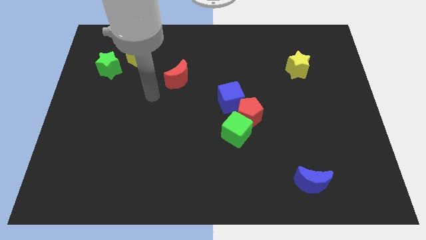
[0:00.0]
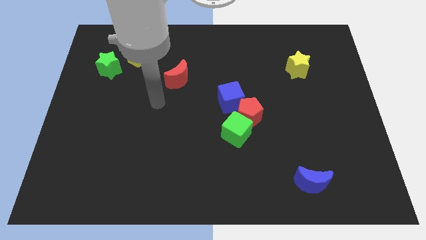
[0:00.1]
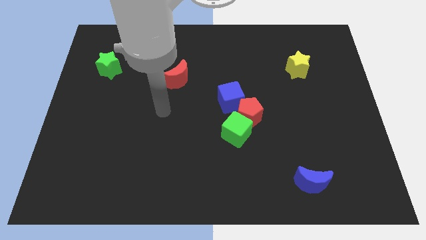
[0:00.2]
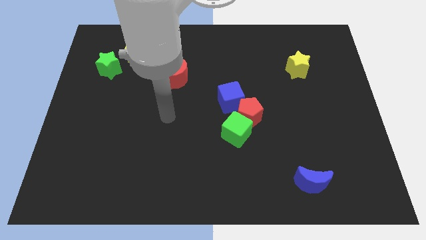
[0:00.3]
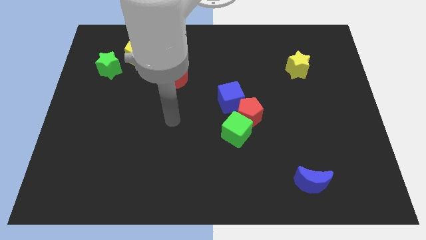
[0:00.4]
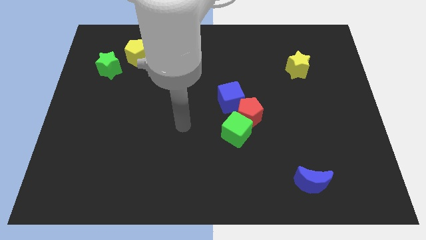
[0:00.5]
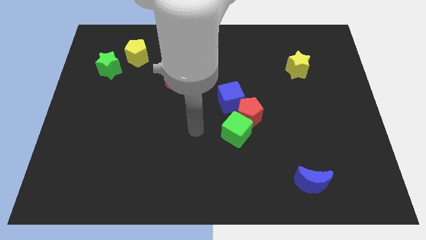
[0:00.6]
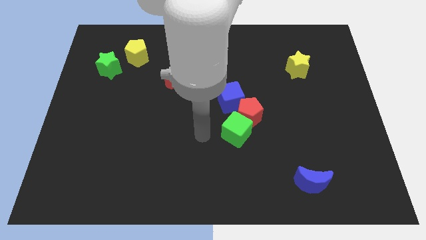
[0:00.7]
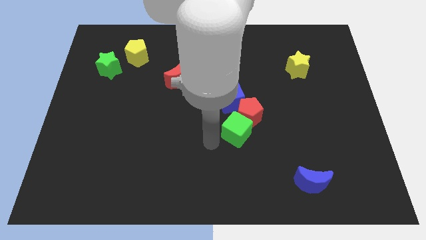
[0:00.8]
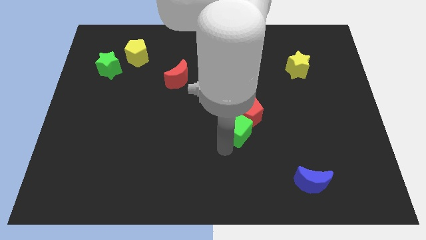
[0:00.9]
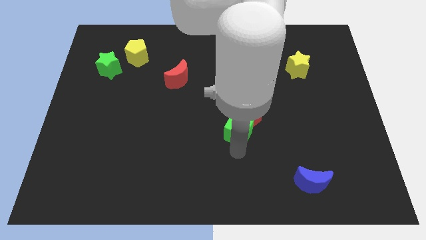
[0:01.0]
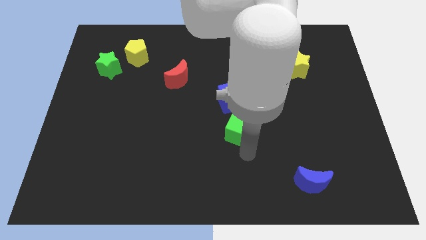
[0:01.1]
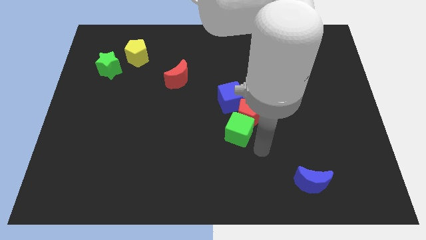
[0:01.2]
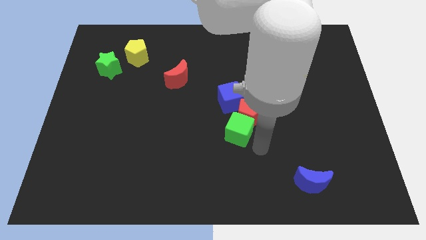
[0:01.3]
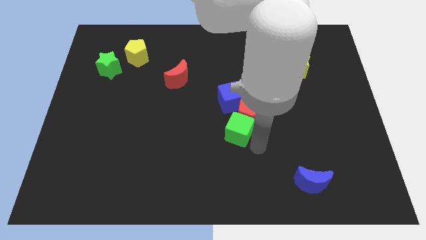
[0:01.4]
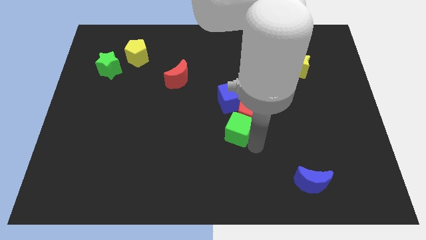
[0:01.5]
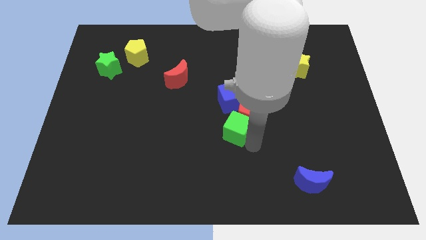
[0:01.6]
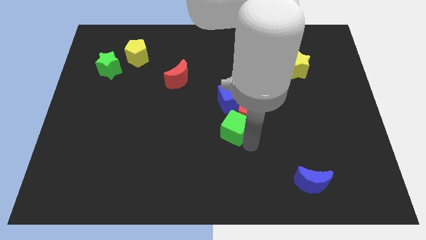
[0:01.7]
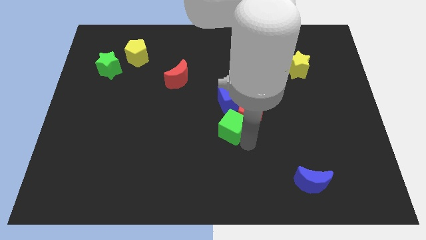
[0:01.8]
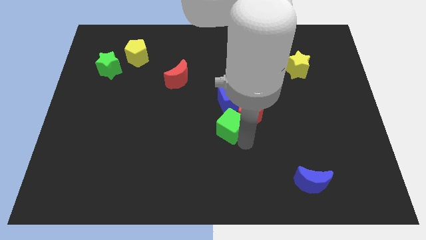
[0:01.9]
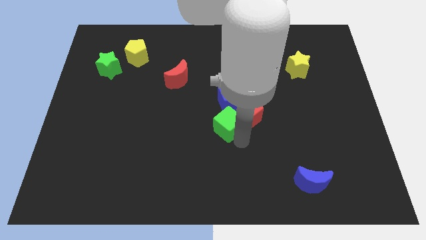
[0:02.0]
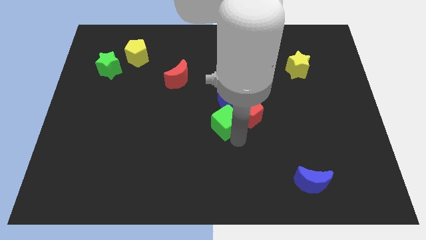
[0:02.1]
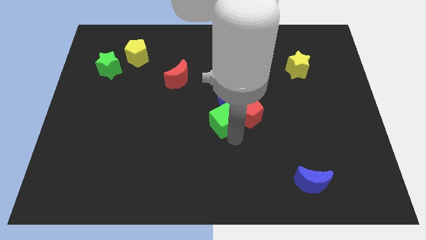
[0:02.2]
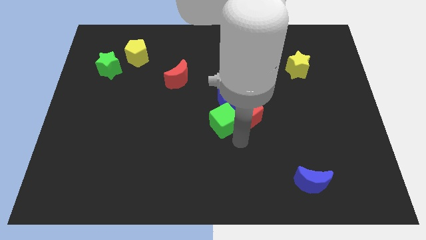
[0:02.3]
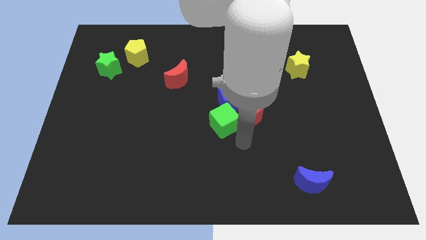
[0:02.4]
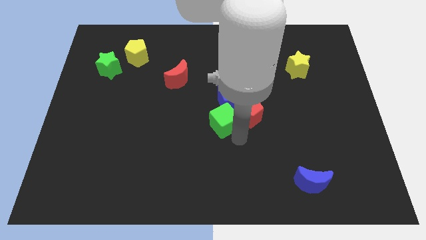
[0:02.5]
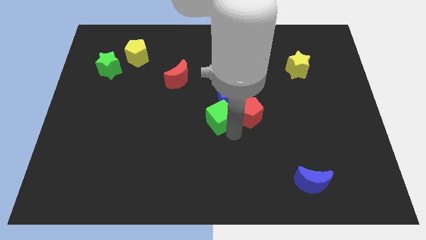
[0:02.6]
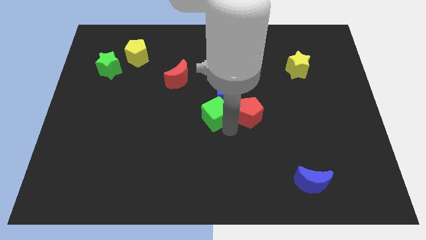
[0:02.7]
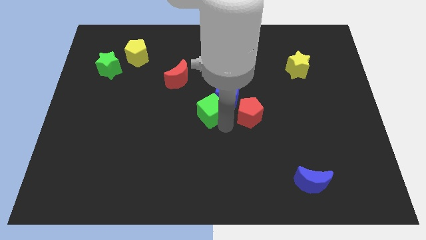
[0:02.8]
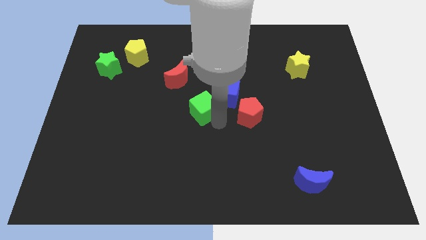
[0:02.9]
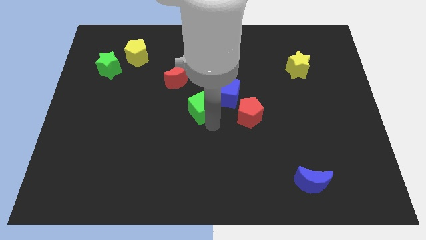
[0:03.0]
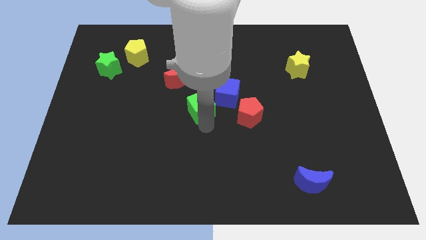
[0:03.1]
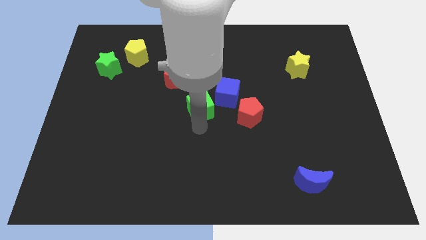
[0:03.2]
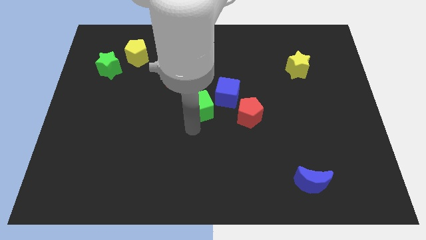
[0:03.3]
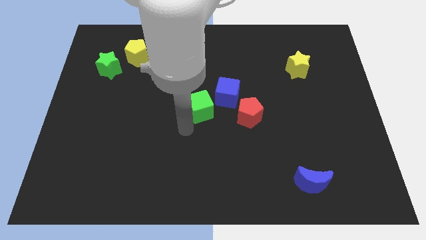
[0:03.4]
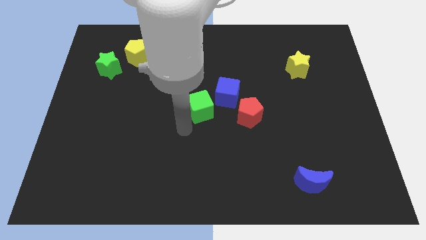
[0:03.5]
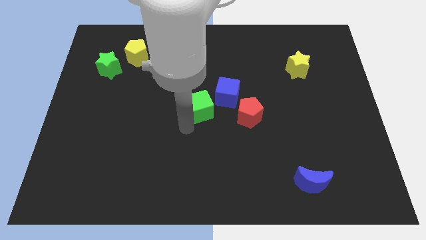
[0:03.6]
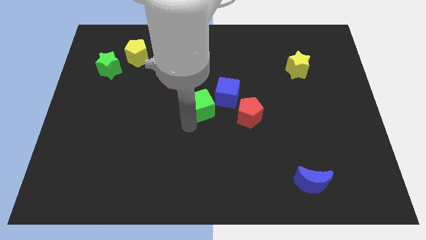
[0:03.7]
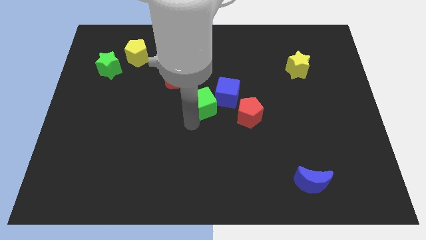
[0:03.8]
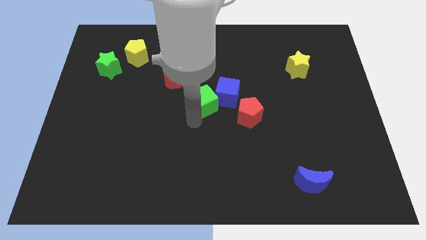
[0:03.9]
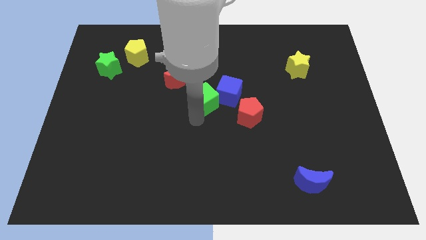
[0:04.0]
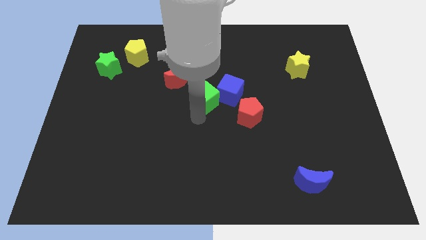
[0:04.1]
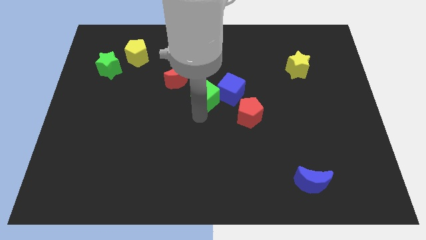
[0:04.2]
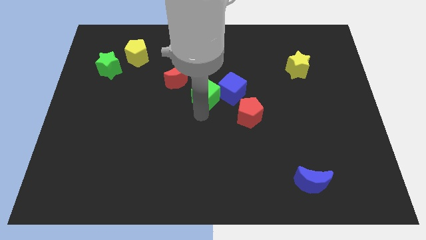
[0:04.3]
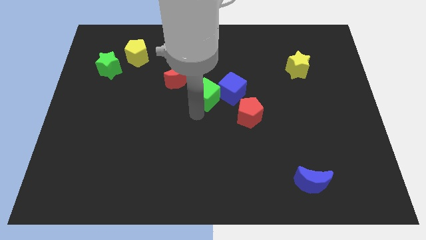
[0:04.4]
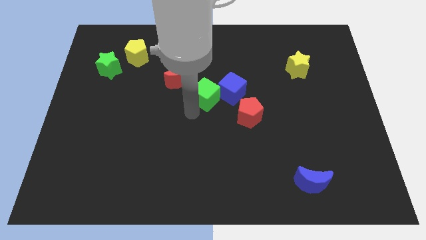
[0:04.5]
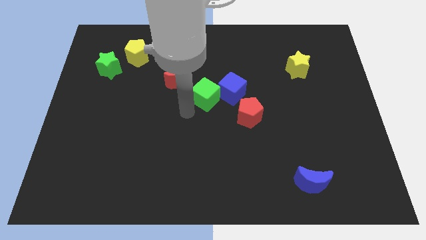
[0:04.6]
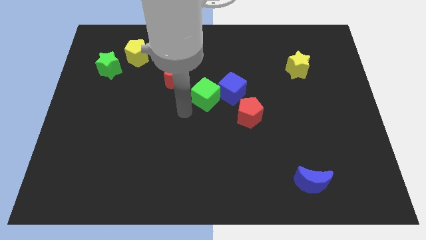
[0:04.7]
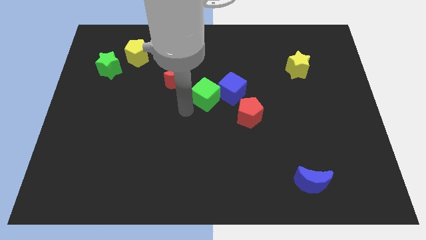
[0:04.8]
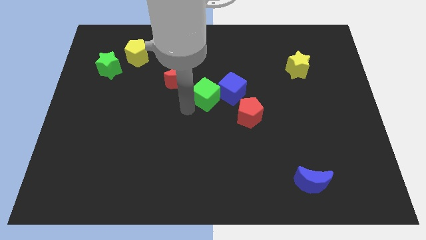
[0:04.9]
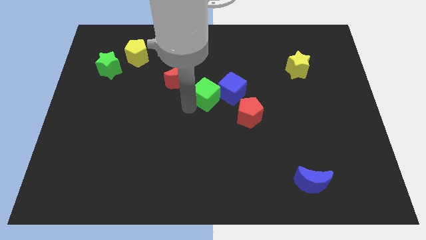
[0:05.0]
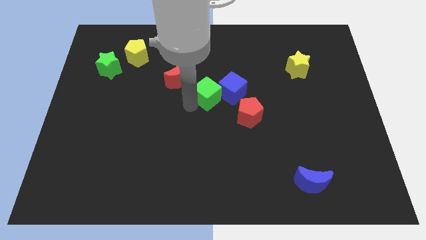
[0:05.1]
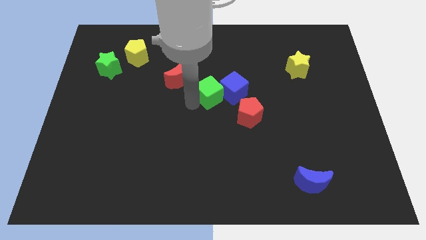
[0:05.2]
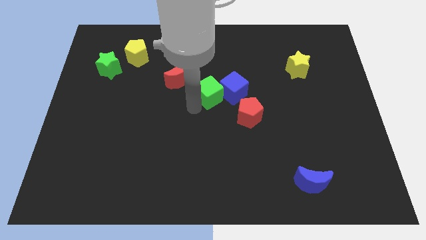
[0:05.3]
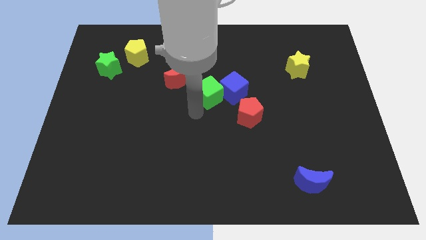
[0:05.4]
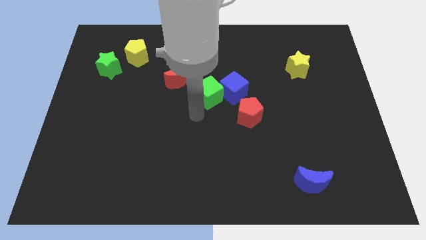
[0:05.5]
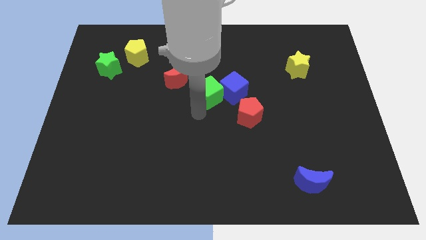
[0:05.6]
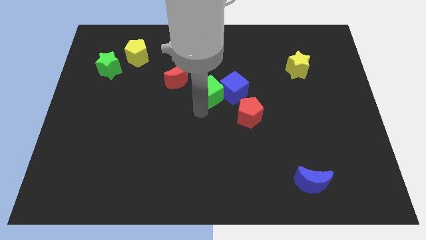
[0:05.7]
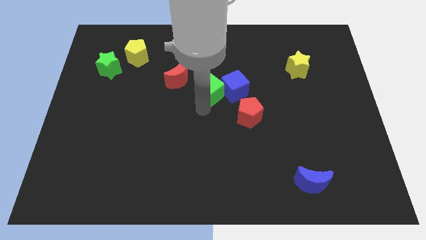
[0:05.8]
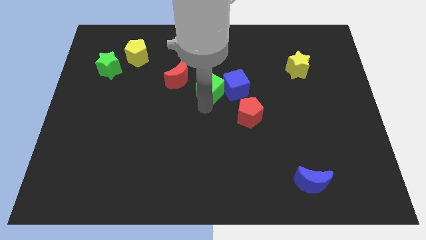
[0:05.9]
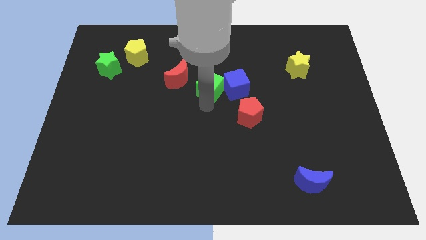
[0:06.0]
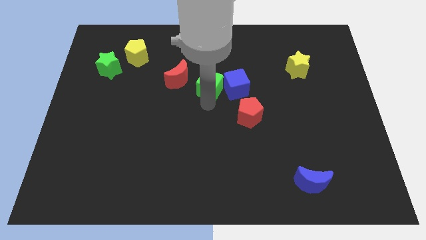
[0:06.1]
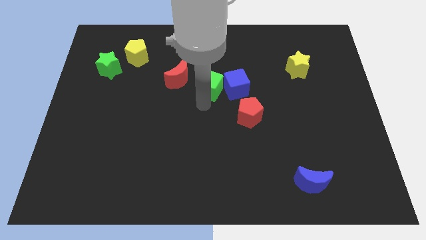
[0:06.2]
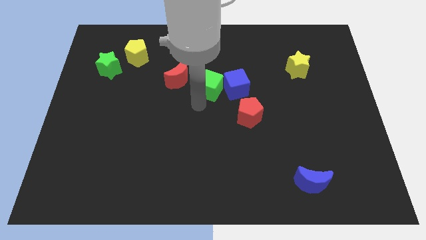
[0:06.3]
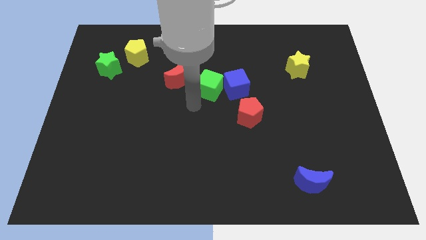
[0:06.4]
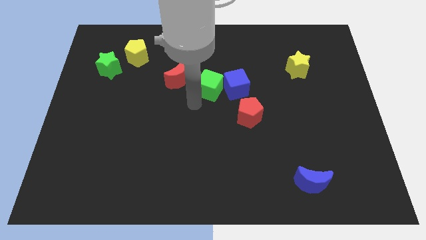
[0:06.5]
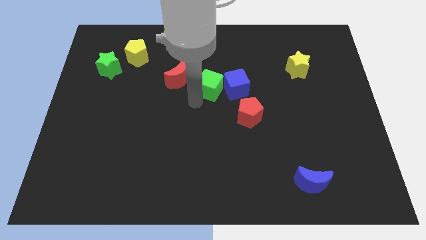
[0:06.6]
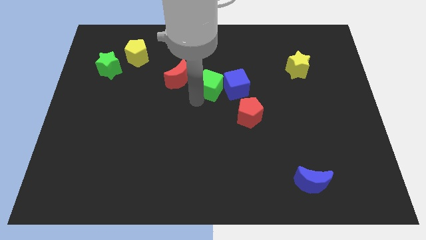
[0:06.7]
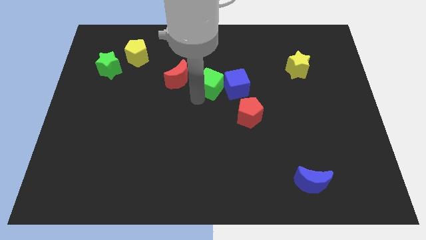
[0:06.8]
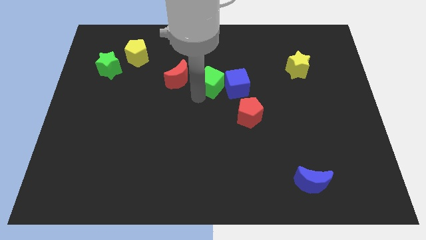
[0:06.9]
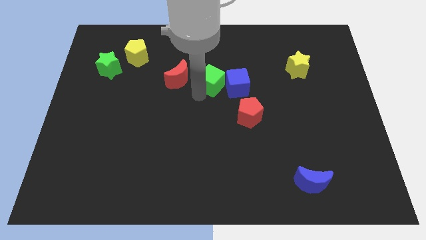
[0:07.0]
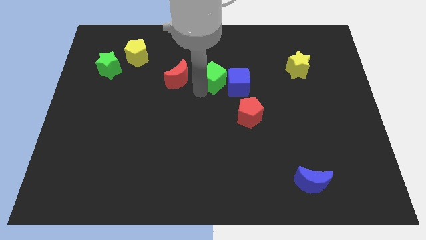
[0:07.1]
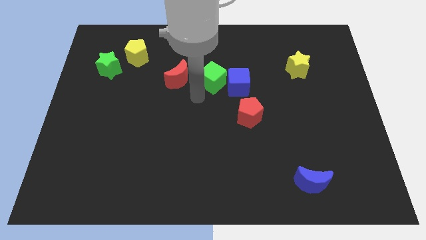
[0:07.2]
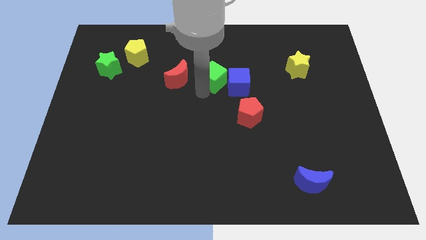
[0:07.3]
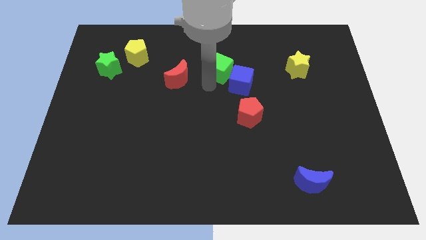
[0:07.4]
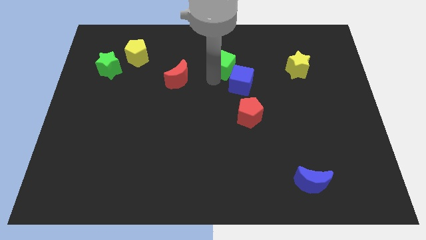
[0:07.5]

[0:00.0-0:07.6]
put the green cube to the top of the blue cube
